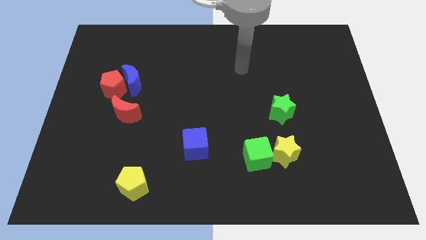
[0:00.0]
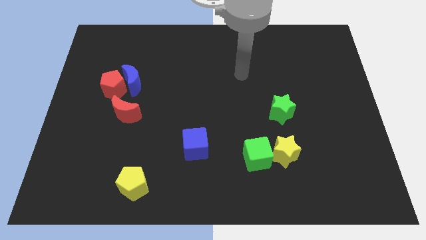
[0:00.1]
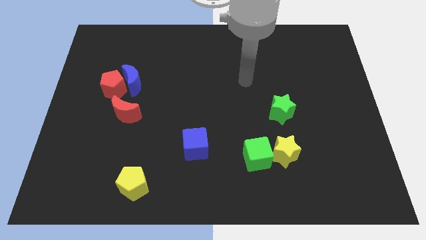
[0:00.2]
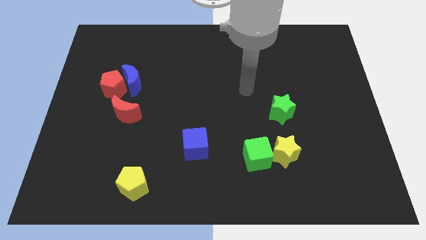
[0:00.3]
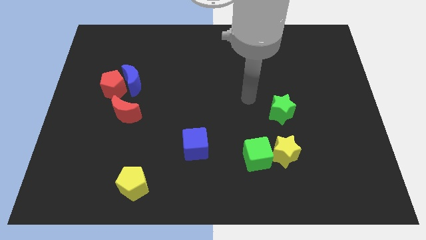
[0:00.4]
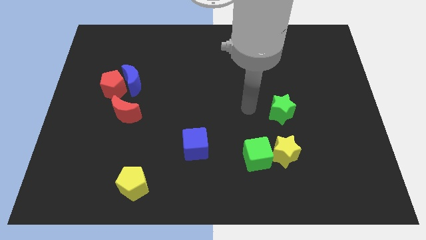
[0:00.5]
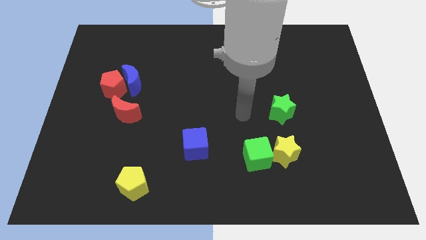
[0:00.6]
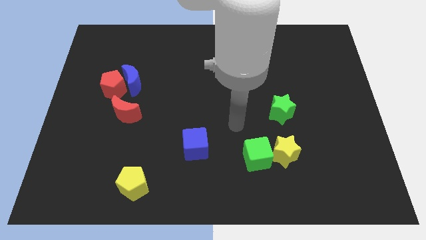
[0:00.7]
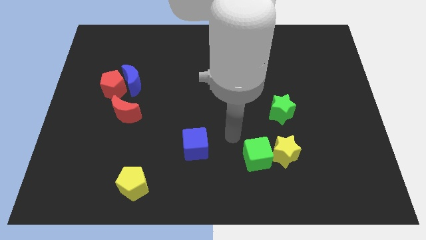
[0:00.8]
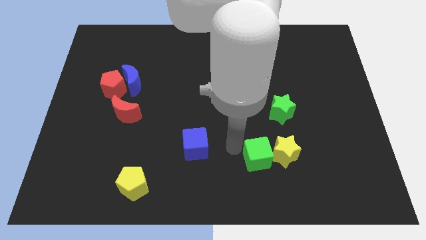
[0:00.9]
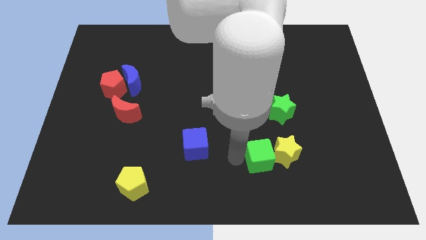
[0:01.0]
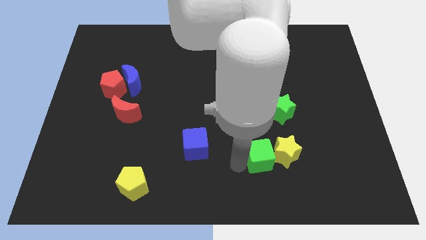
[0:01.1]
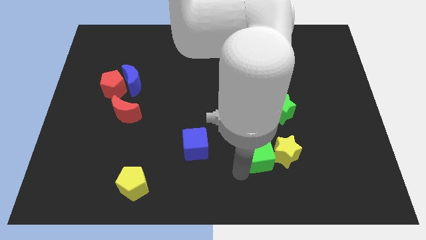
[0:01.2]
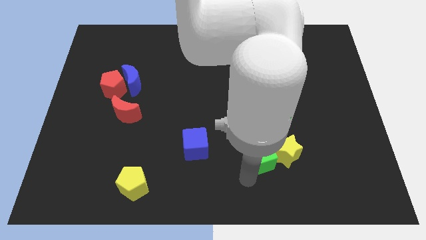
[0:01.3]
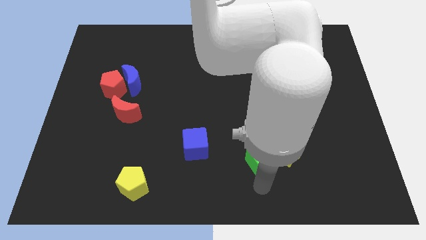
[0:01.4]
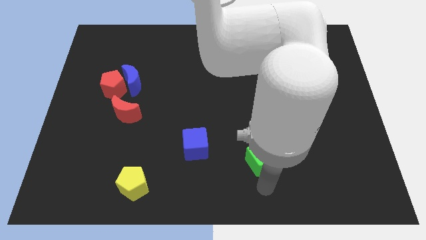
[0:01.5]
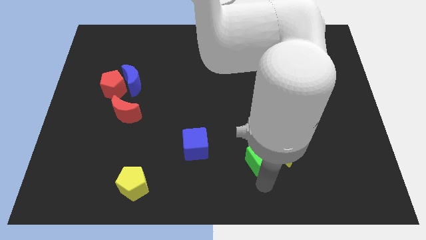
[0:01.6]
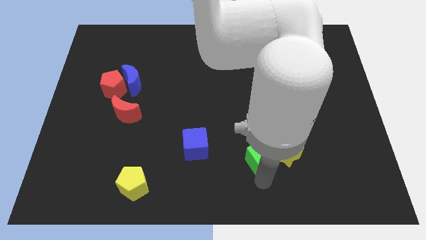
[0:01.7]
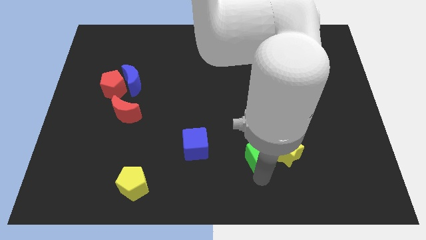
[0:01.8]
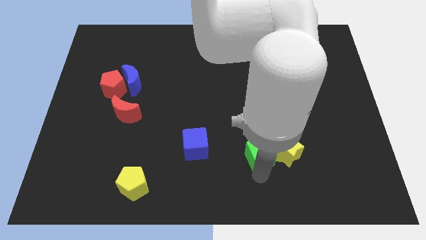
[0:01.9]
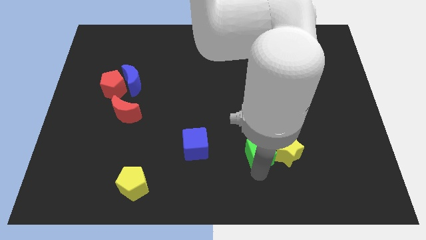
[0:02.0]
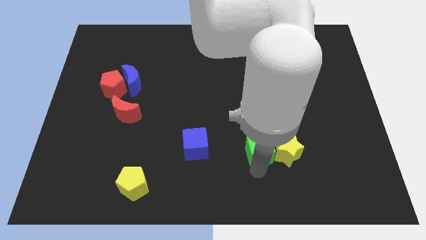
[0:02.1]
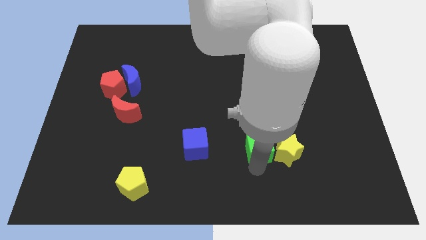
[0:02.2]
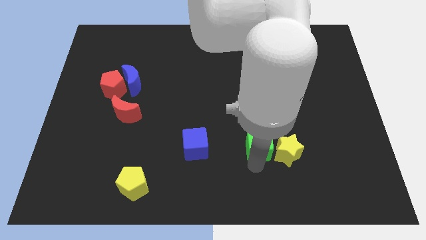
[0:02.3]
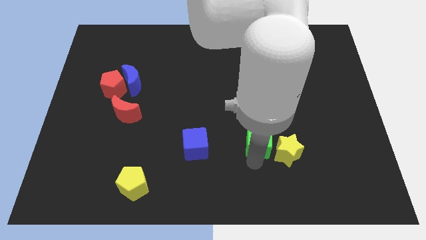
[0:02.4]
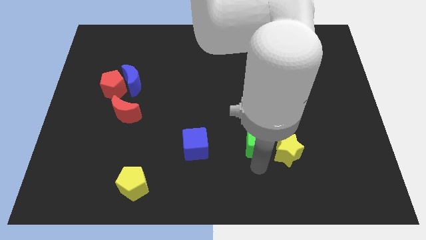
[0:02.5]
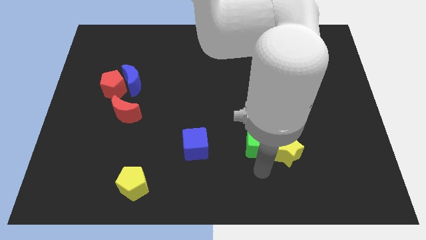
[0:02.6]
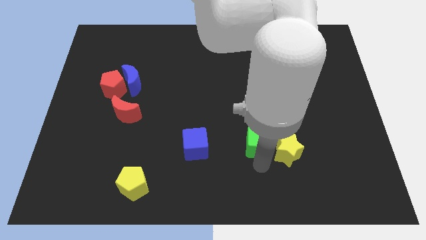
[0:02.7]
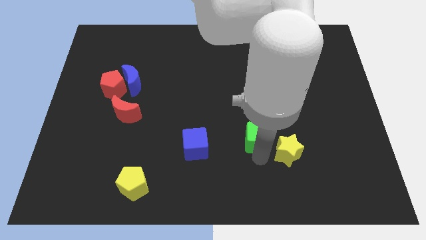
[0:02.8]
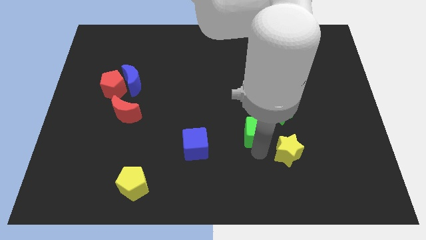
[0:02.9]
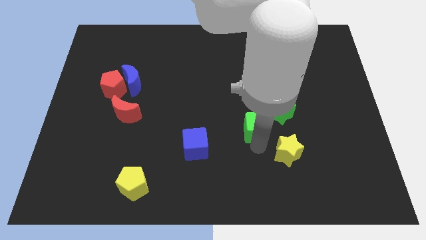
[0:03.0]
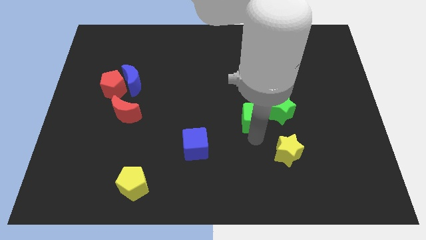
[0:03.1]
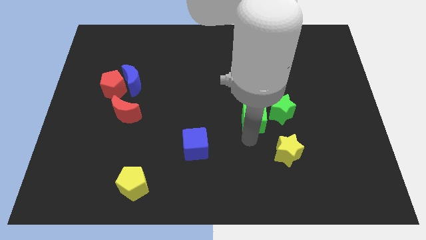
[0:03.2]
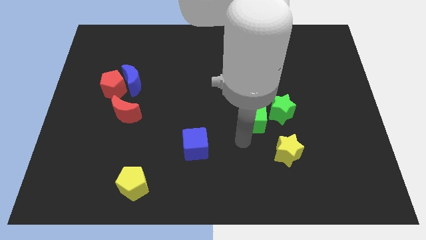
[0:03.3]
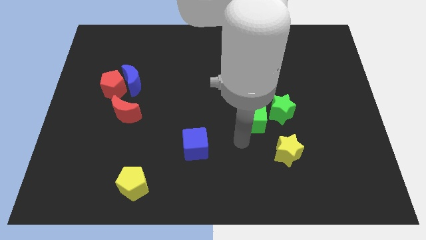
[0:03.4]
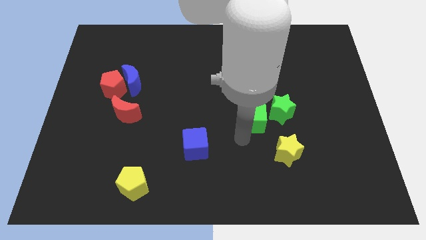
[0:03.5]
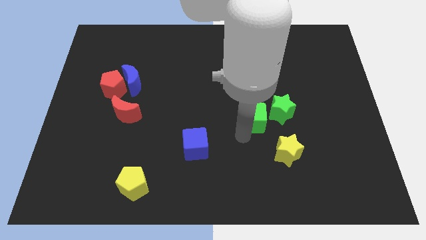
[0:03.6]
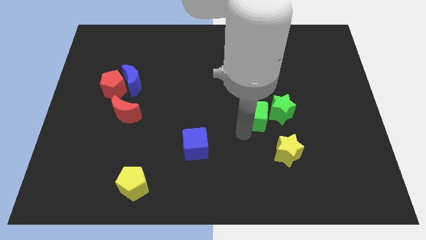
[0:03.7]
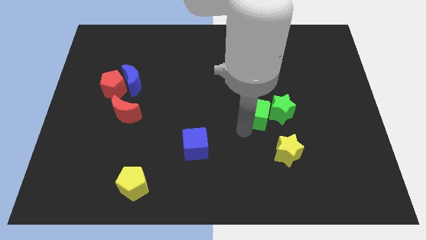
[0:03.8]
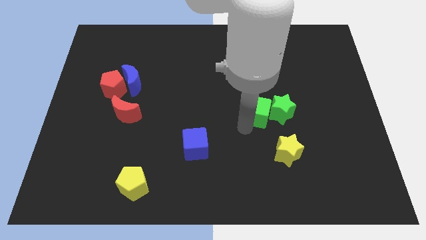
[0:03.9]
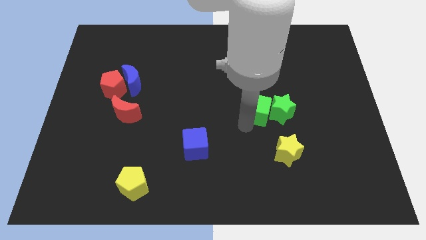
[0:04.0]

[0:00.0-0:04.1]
push the green cube slightly up and to the right diagonally

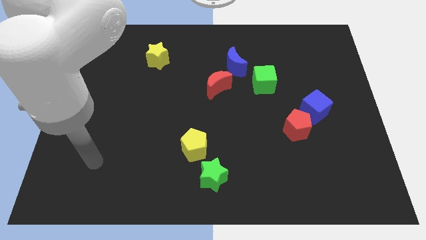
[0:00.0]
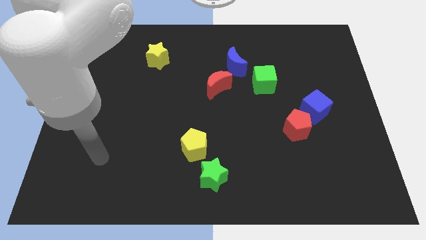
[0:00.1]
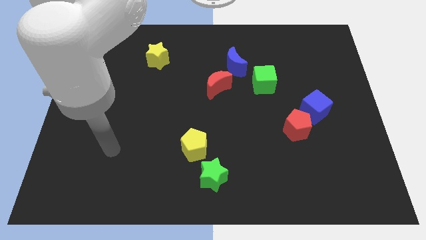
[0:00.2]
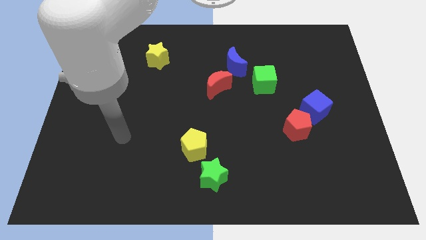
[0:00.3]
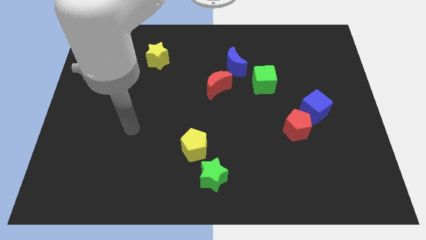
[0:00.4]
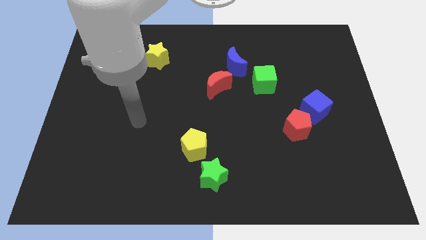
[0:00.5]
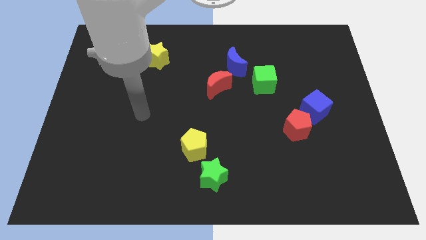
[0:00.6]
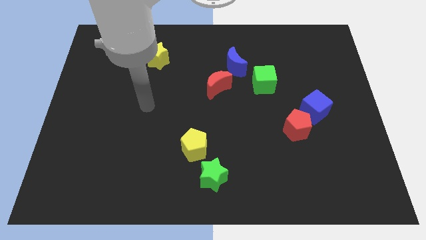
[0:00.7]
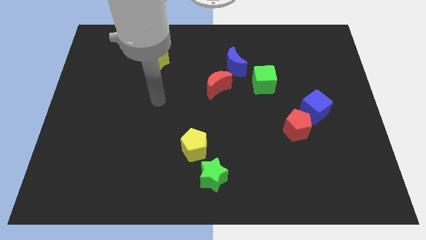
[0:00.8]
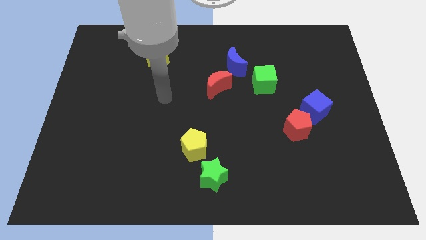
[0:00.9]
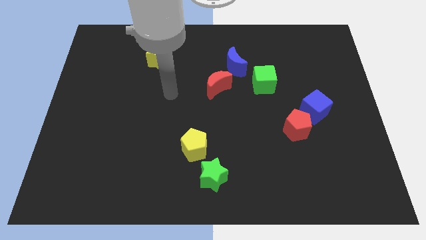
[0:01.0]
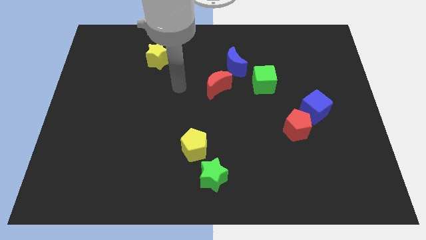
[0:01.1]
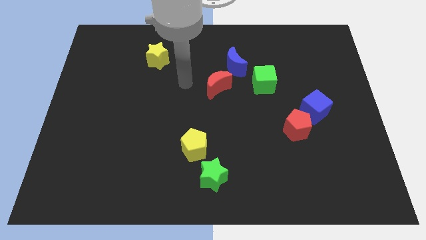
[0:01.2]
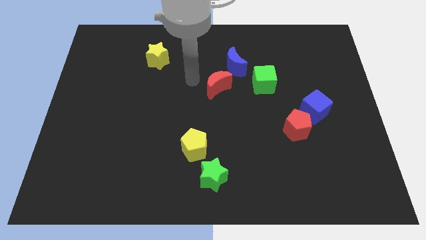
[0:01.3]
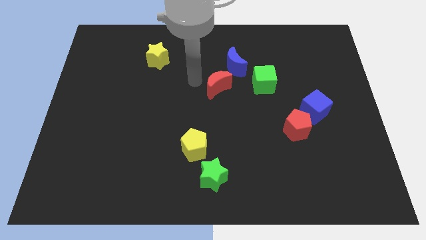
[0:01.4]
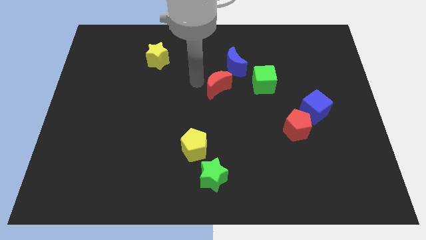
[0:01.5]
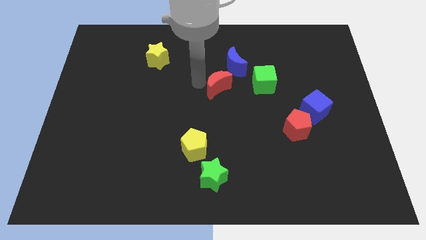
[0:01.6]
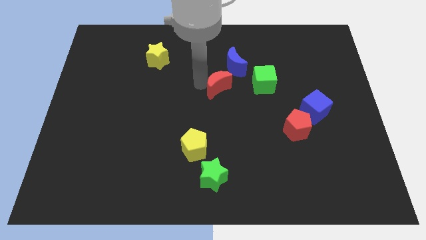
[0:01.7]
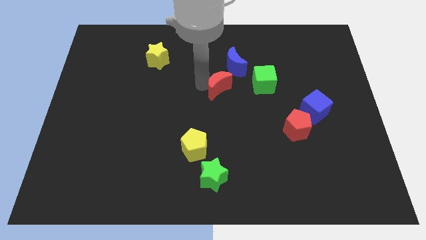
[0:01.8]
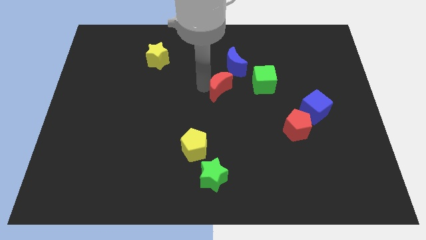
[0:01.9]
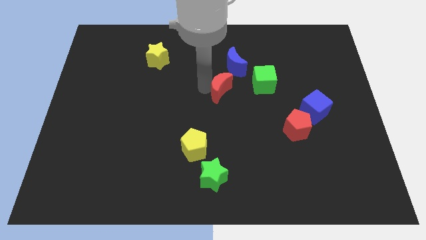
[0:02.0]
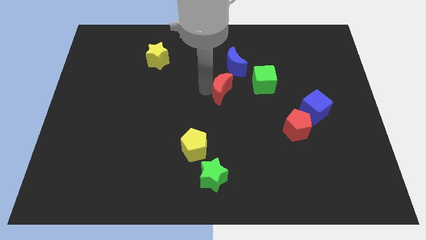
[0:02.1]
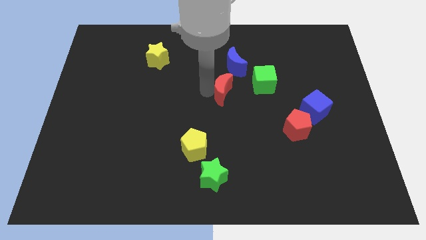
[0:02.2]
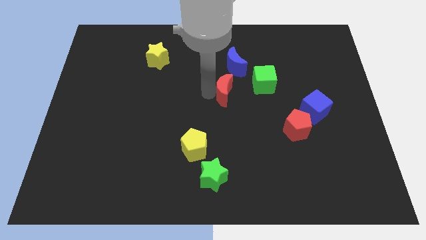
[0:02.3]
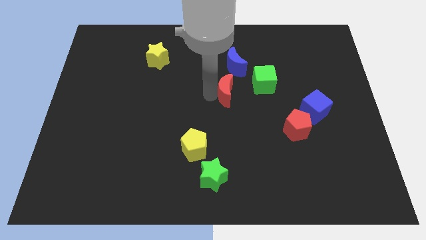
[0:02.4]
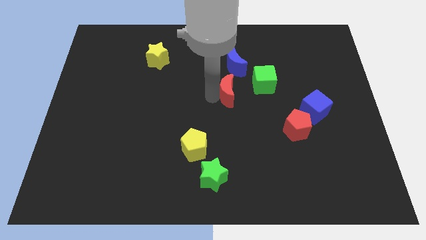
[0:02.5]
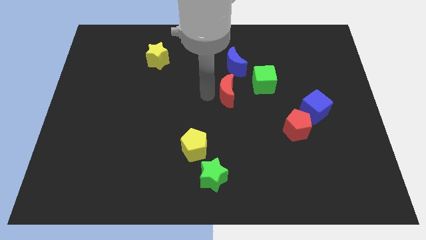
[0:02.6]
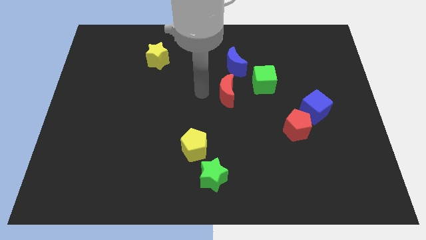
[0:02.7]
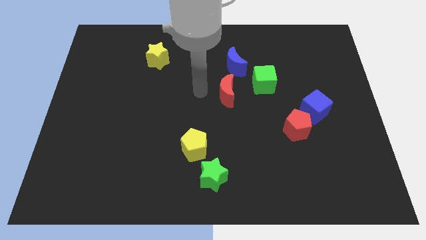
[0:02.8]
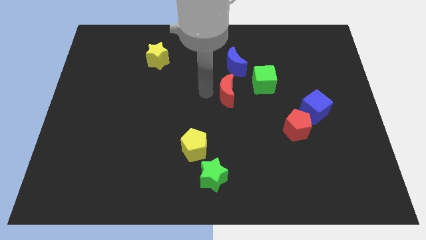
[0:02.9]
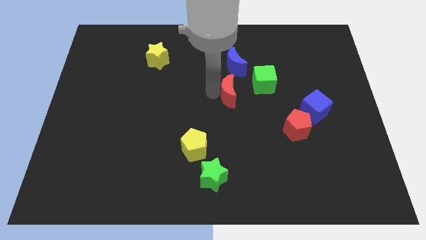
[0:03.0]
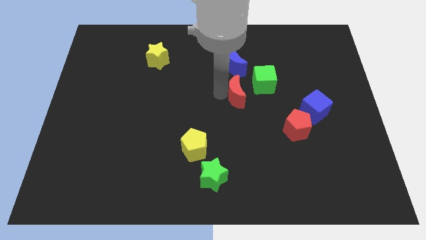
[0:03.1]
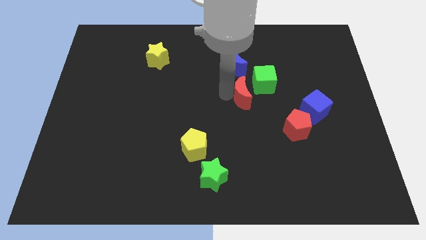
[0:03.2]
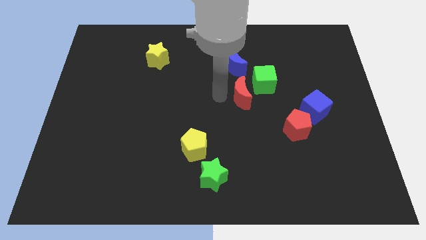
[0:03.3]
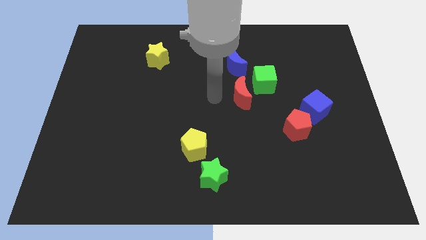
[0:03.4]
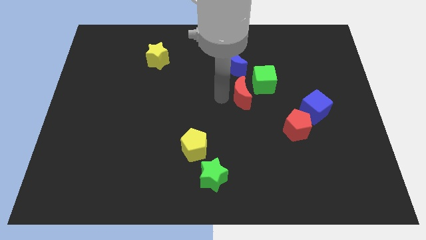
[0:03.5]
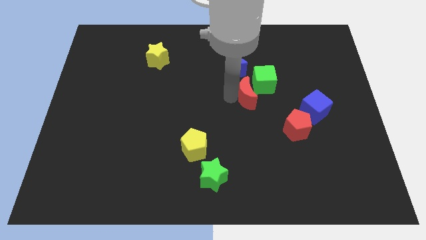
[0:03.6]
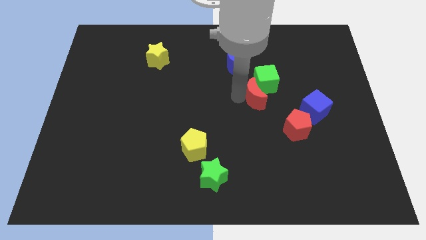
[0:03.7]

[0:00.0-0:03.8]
slightly move the red moon right
